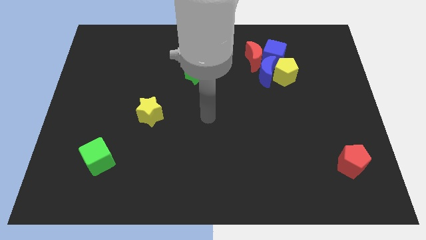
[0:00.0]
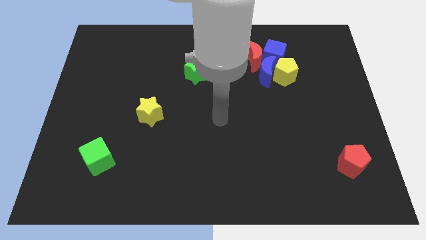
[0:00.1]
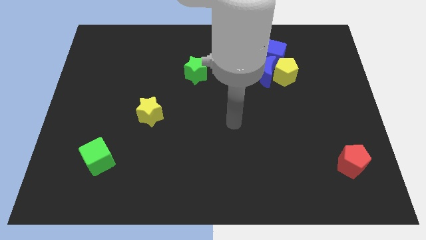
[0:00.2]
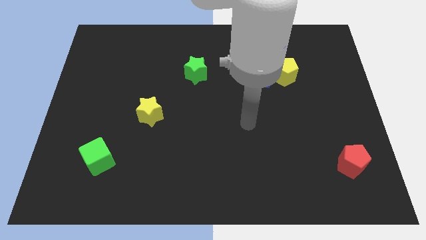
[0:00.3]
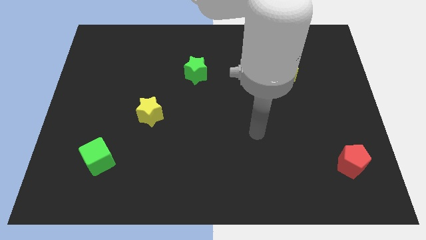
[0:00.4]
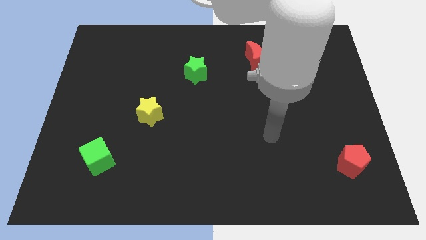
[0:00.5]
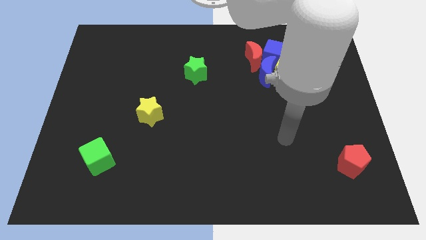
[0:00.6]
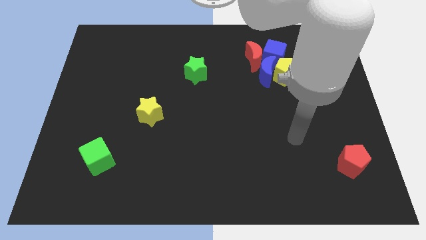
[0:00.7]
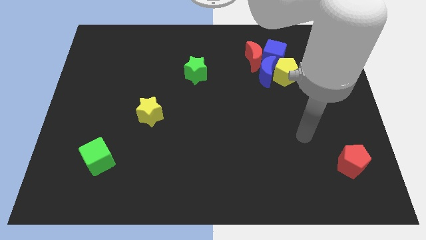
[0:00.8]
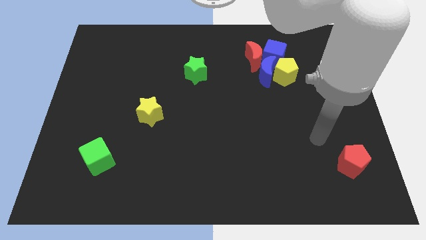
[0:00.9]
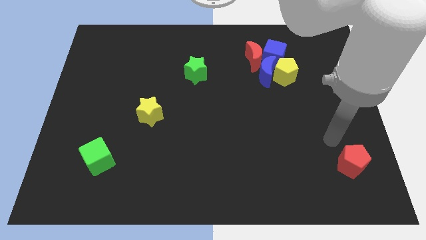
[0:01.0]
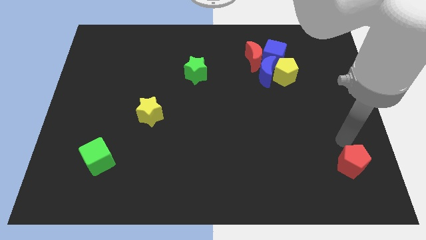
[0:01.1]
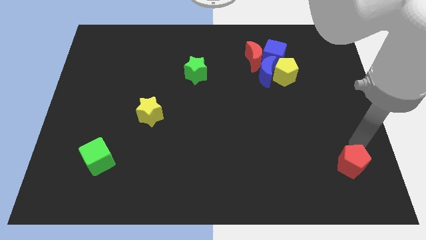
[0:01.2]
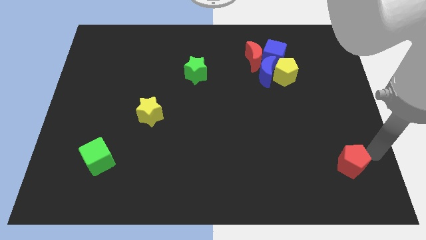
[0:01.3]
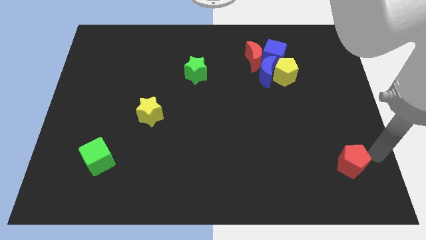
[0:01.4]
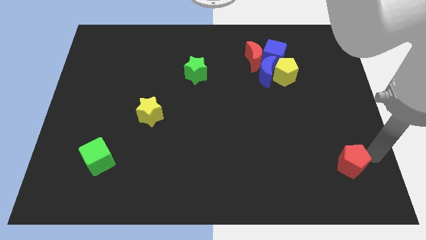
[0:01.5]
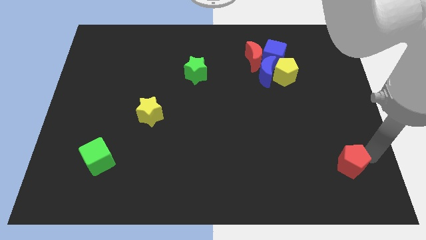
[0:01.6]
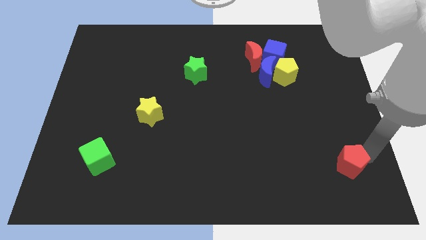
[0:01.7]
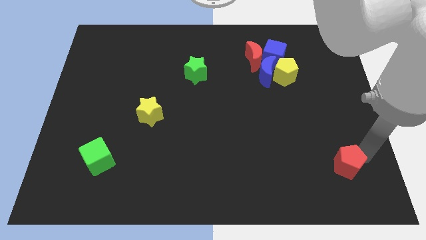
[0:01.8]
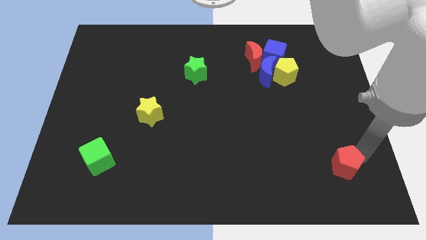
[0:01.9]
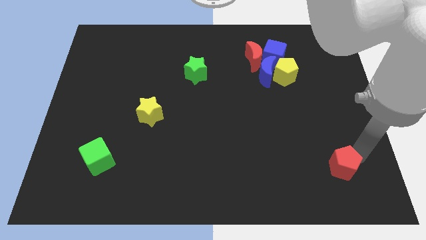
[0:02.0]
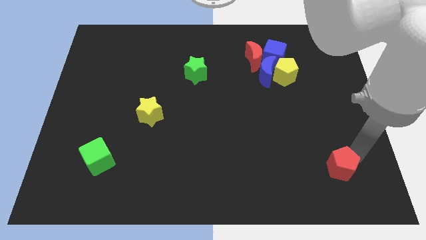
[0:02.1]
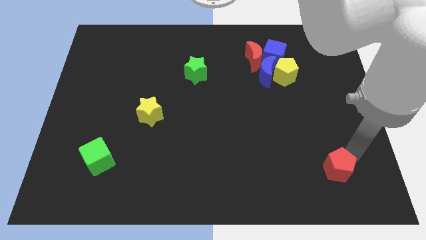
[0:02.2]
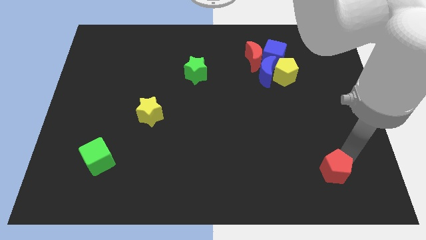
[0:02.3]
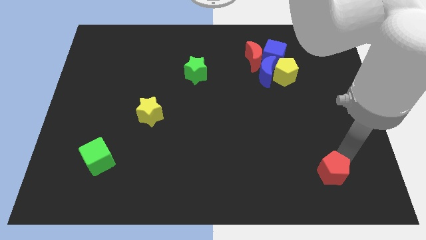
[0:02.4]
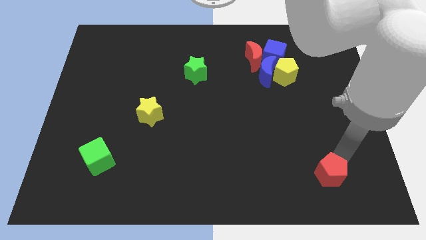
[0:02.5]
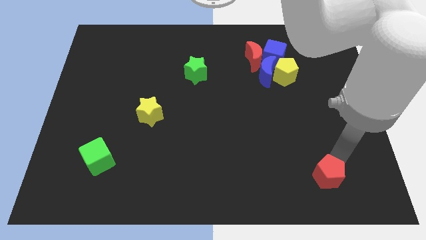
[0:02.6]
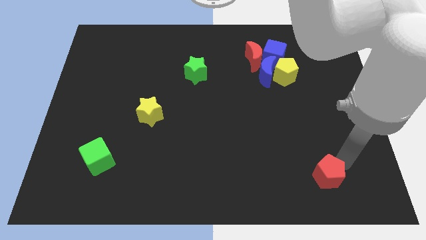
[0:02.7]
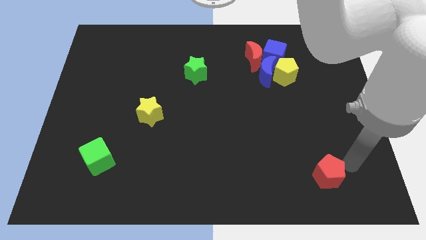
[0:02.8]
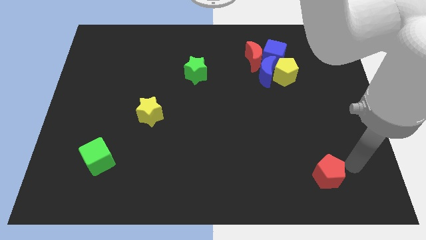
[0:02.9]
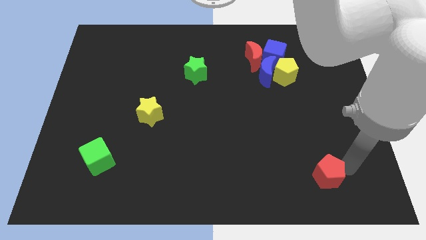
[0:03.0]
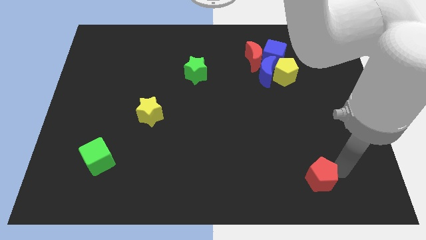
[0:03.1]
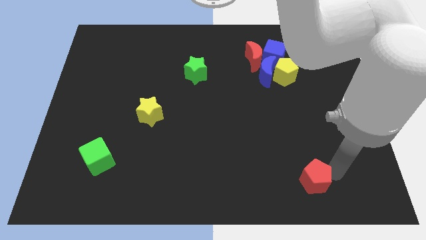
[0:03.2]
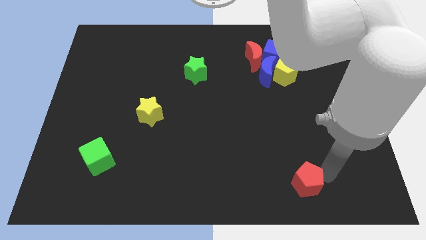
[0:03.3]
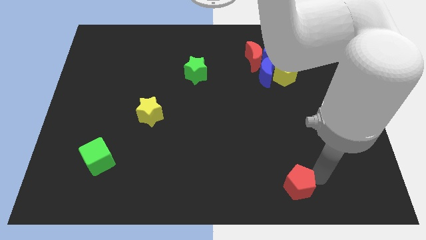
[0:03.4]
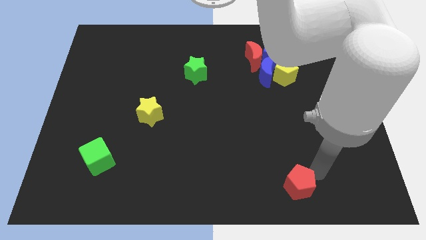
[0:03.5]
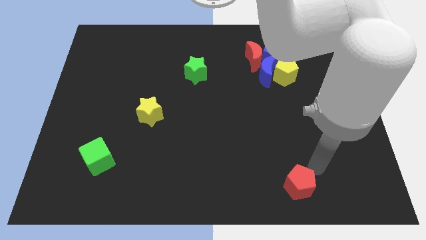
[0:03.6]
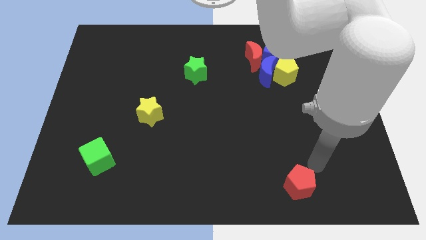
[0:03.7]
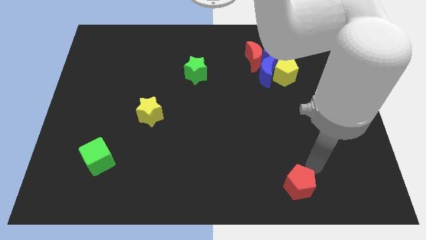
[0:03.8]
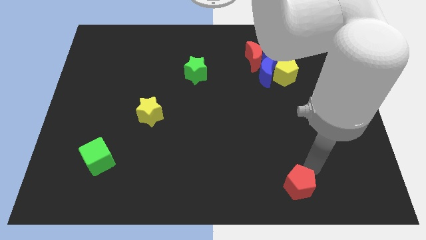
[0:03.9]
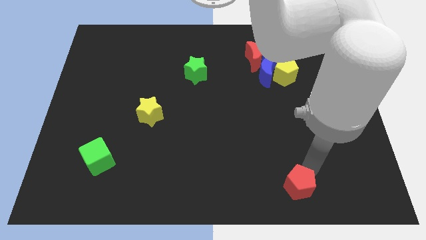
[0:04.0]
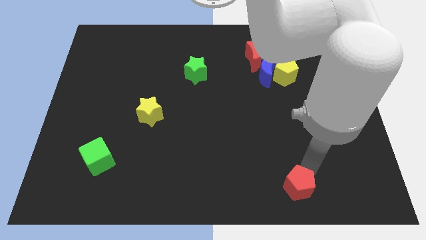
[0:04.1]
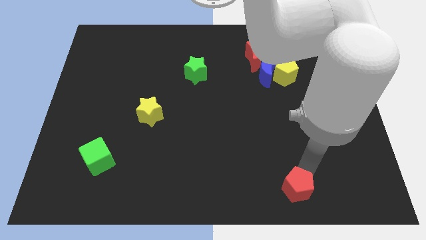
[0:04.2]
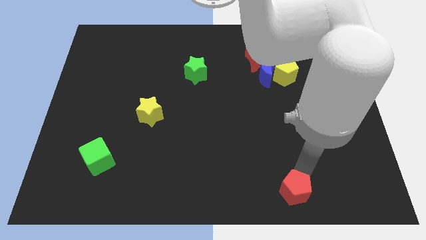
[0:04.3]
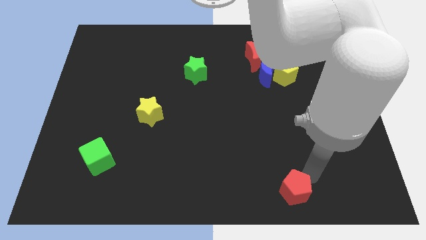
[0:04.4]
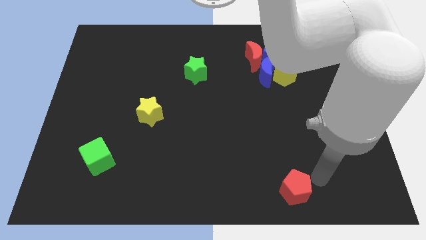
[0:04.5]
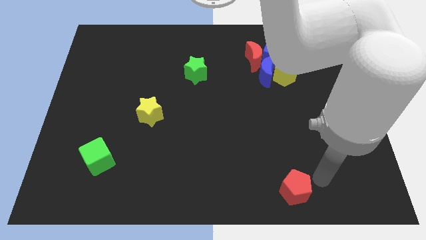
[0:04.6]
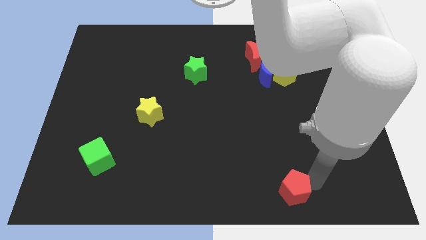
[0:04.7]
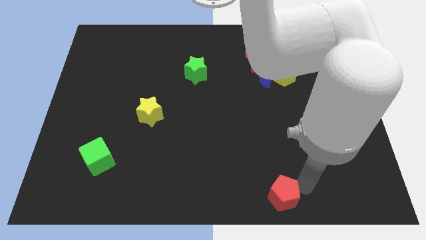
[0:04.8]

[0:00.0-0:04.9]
push the red pentagon to the bottom side

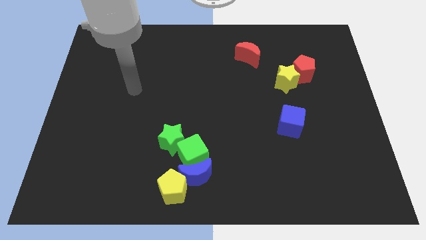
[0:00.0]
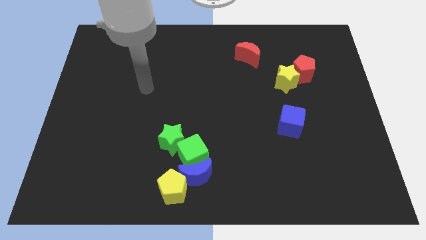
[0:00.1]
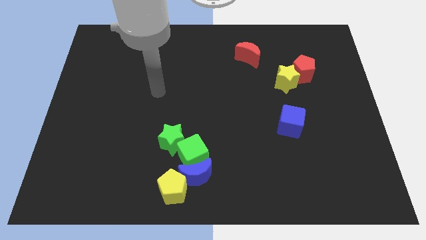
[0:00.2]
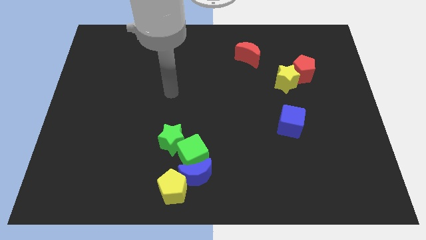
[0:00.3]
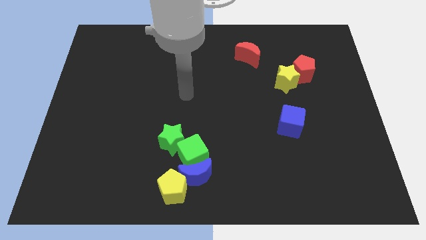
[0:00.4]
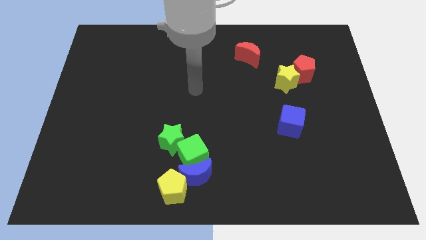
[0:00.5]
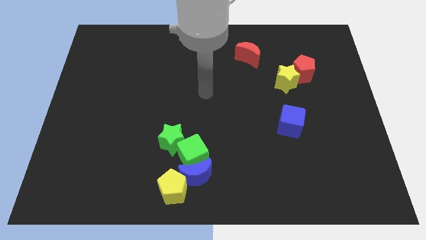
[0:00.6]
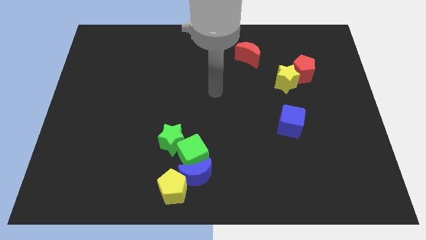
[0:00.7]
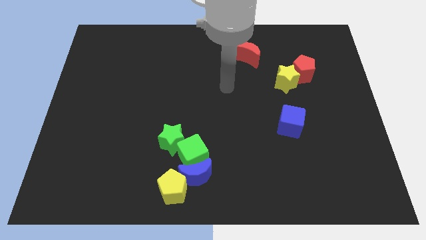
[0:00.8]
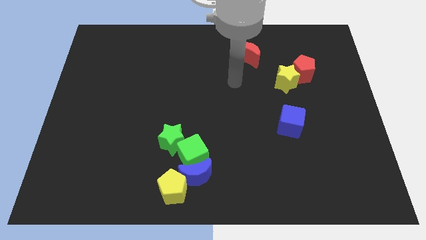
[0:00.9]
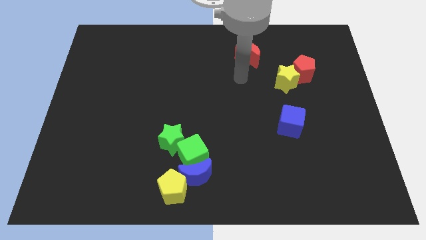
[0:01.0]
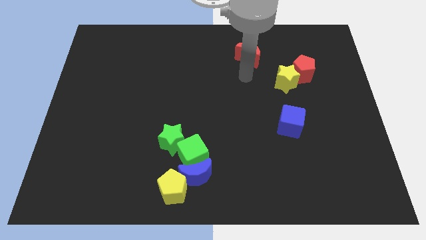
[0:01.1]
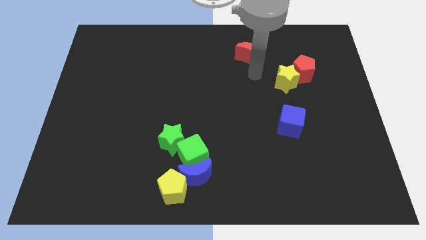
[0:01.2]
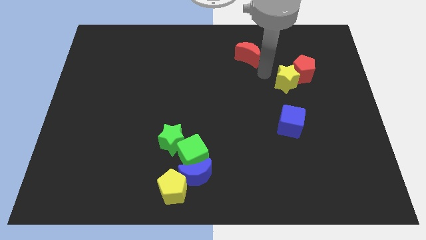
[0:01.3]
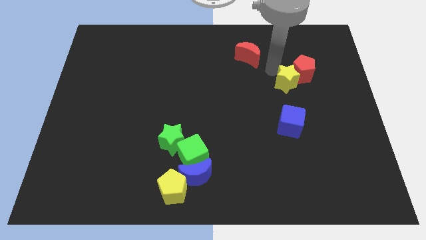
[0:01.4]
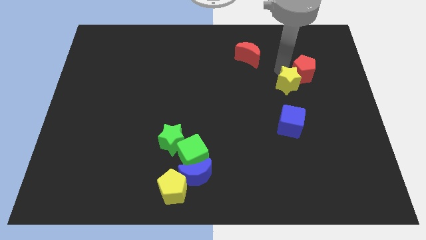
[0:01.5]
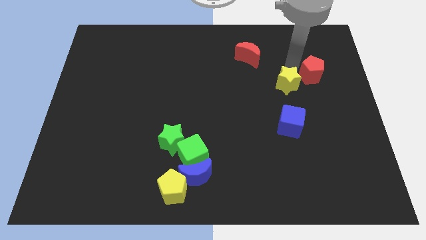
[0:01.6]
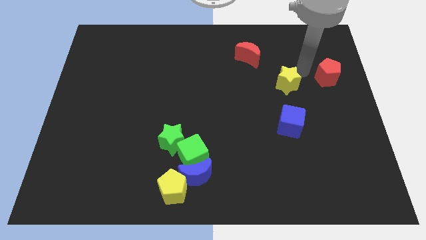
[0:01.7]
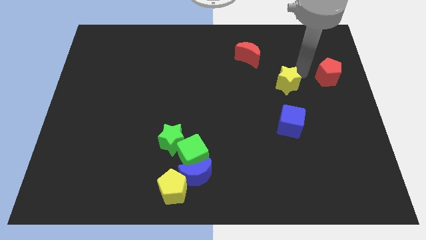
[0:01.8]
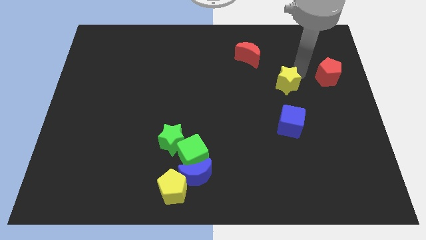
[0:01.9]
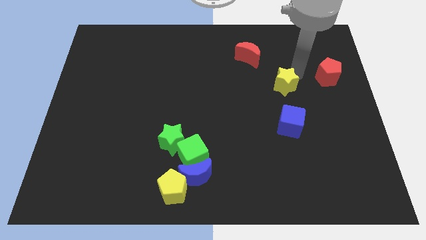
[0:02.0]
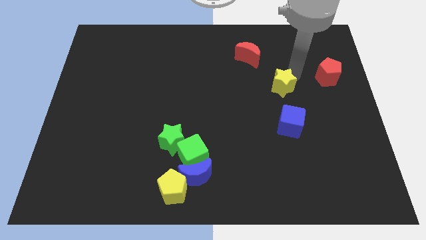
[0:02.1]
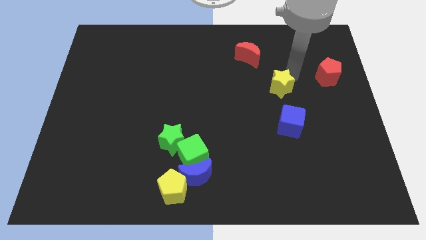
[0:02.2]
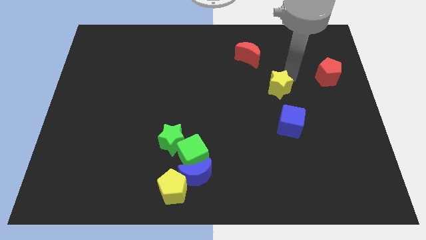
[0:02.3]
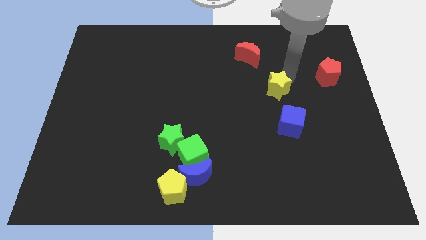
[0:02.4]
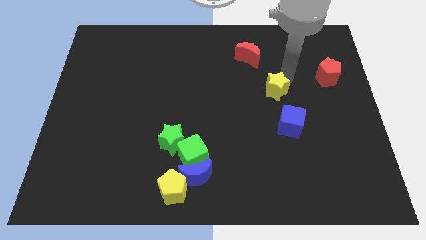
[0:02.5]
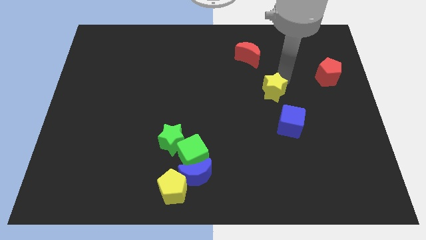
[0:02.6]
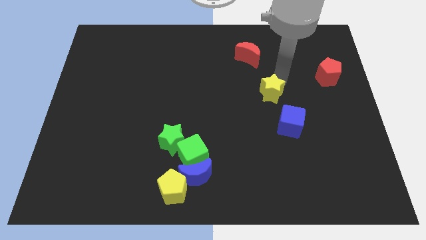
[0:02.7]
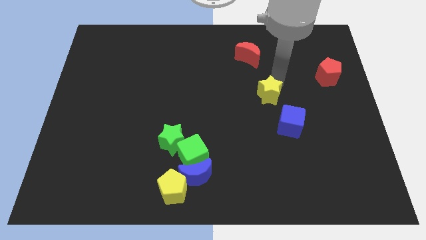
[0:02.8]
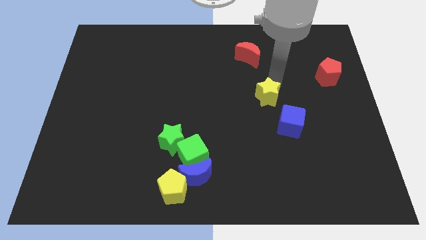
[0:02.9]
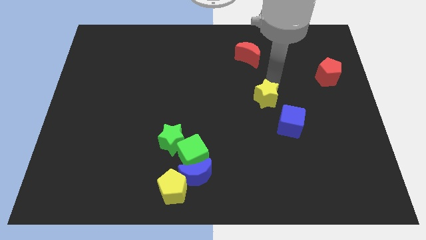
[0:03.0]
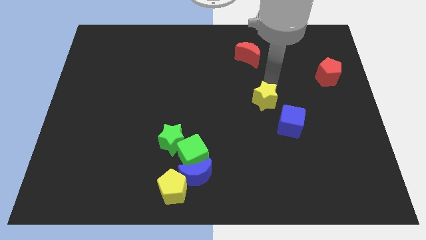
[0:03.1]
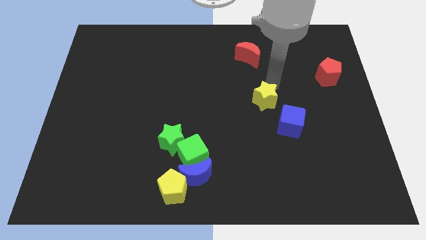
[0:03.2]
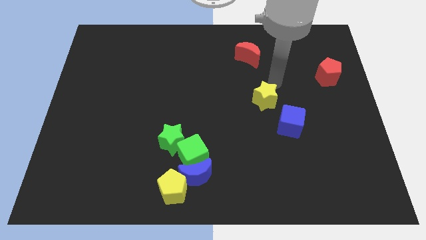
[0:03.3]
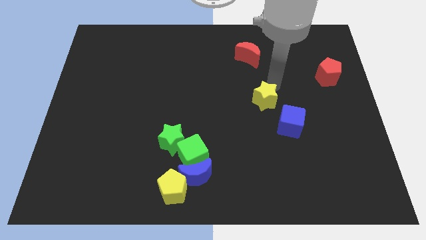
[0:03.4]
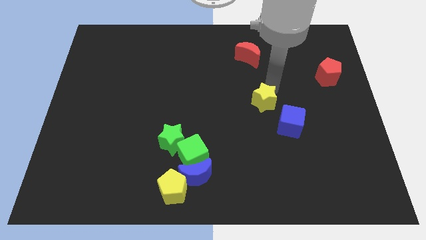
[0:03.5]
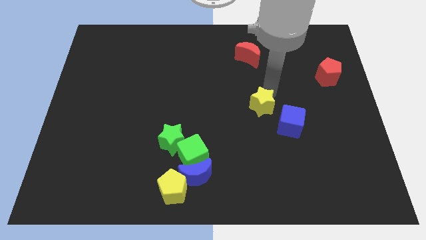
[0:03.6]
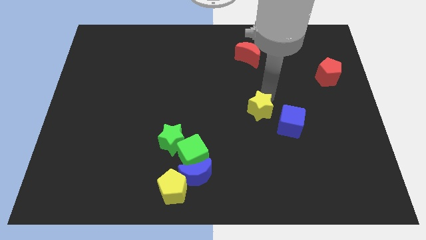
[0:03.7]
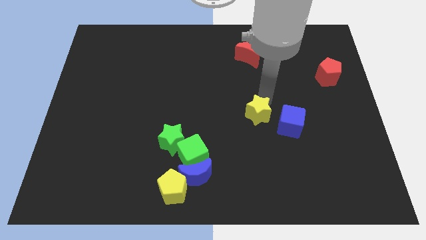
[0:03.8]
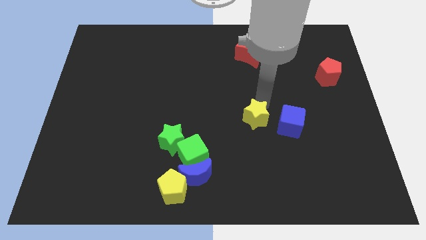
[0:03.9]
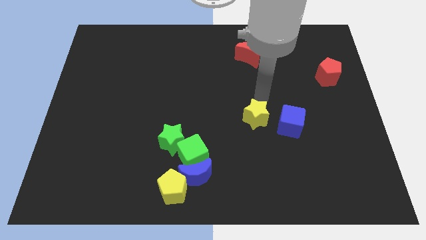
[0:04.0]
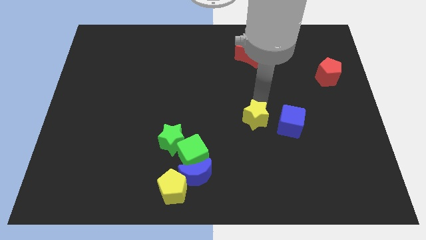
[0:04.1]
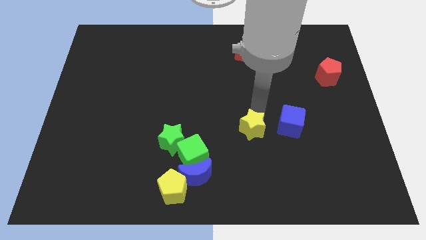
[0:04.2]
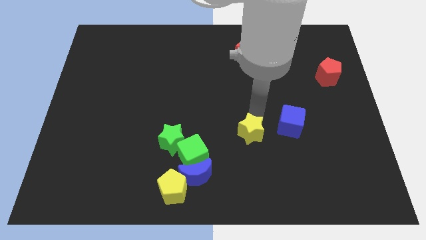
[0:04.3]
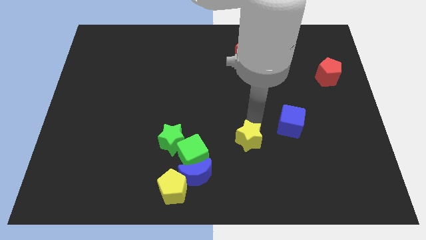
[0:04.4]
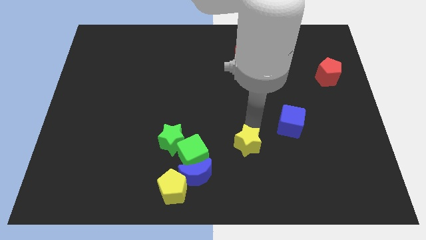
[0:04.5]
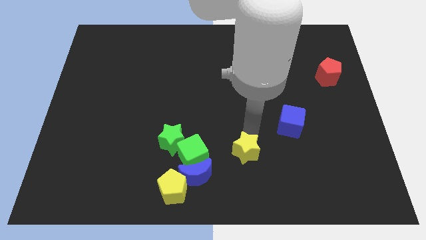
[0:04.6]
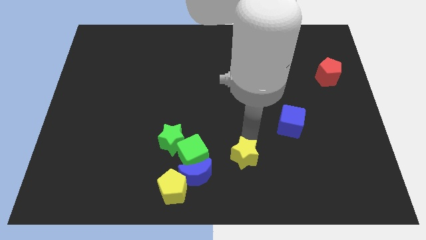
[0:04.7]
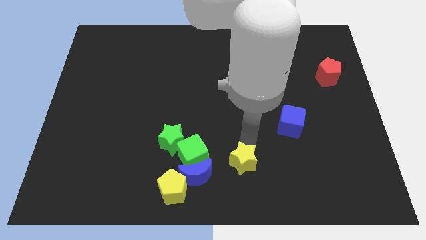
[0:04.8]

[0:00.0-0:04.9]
move the yellow star to the bottom
